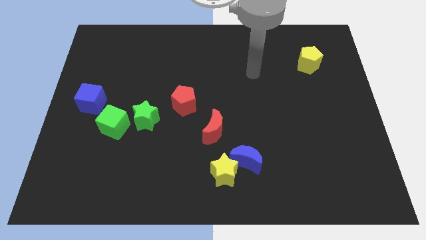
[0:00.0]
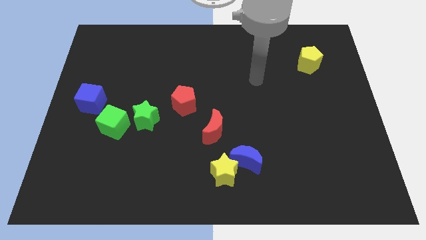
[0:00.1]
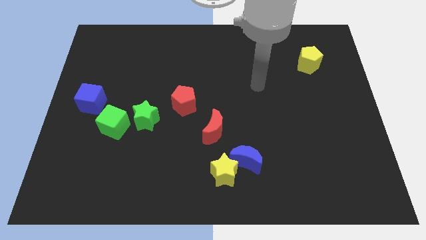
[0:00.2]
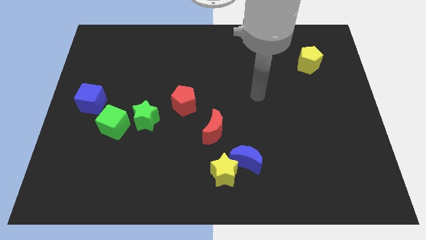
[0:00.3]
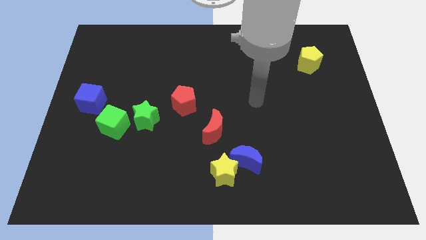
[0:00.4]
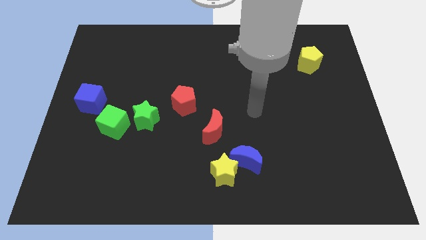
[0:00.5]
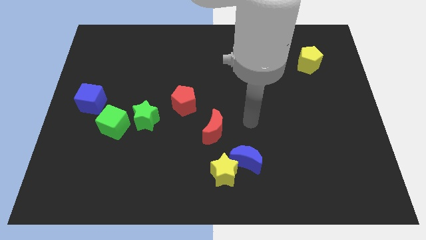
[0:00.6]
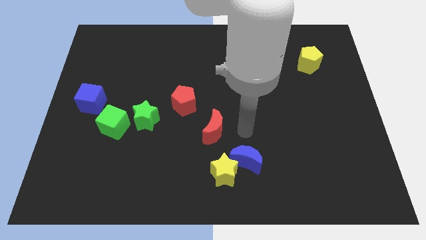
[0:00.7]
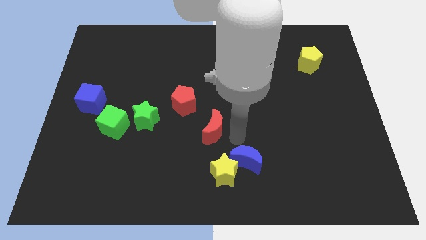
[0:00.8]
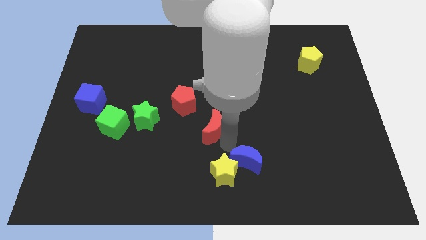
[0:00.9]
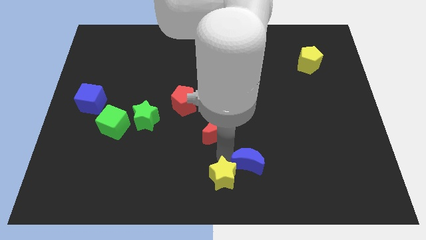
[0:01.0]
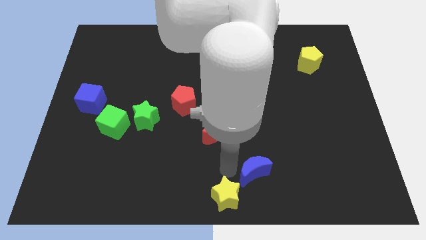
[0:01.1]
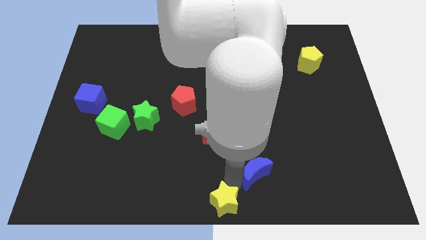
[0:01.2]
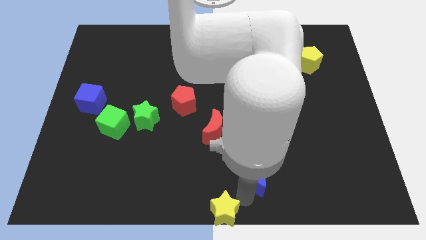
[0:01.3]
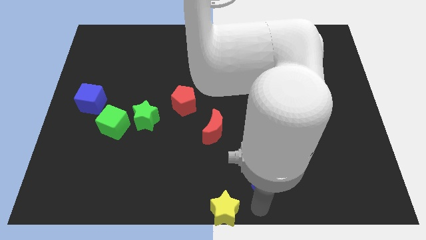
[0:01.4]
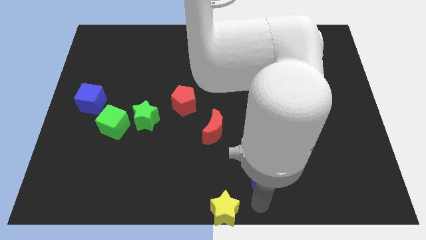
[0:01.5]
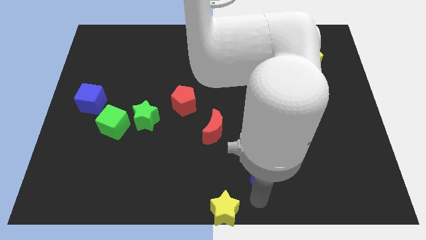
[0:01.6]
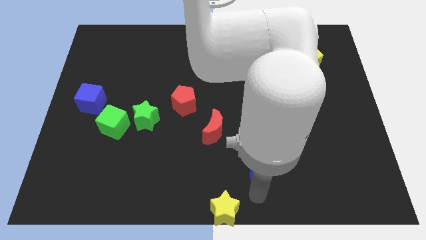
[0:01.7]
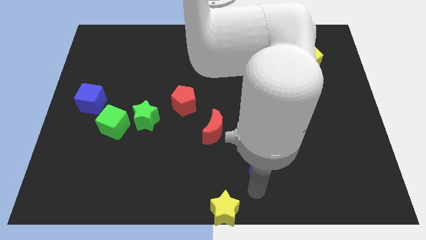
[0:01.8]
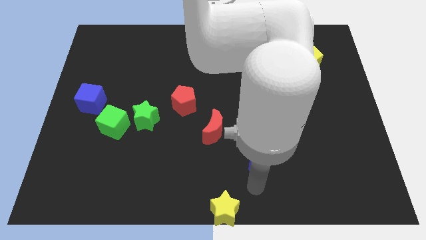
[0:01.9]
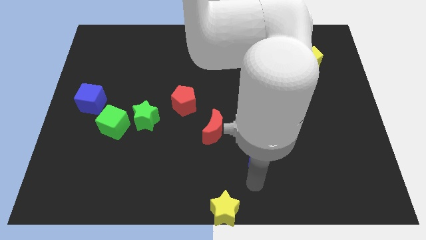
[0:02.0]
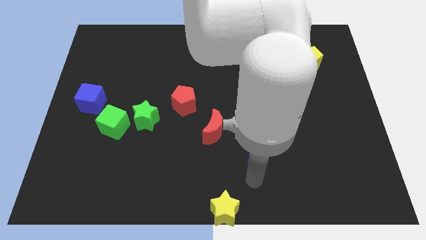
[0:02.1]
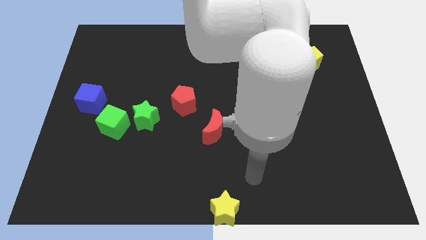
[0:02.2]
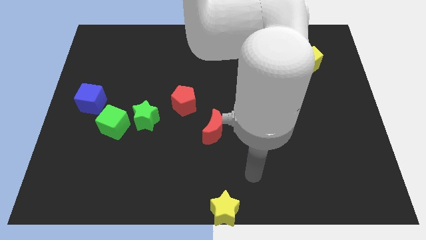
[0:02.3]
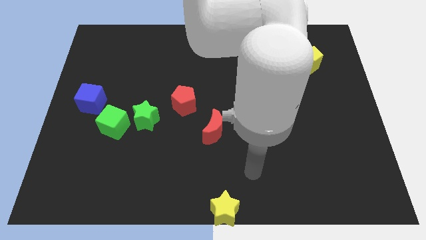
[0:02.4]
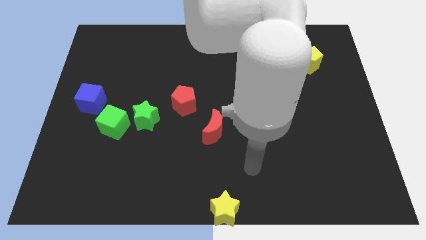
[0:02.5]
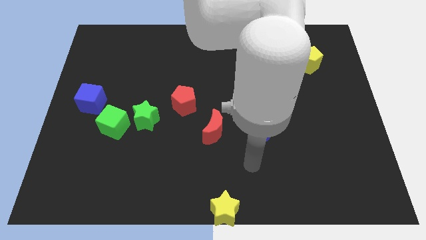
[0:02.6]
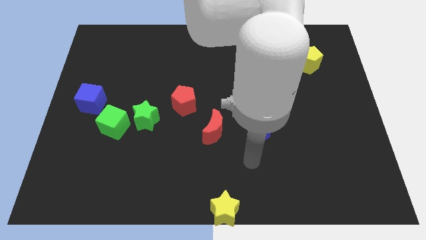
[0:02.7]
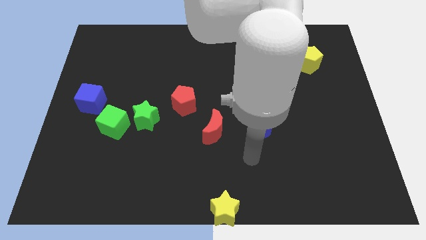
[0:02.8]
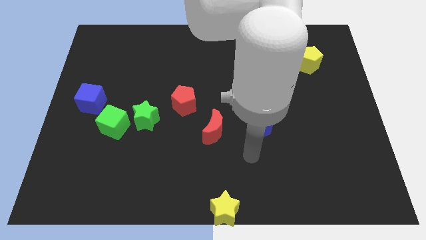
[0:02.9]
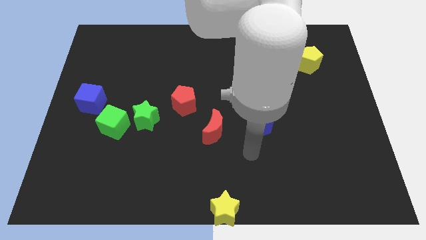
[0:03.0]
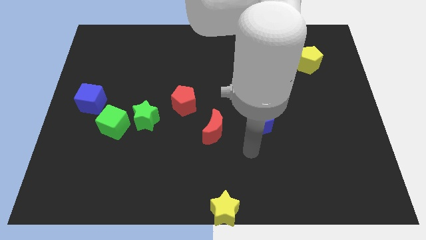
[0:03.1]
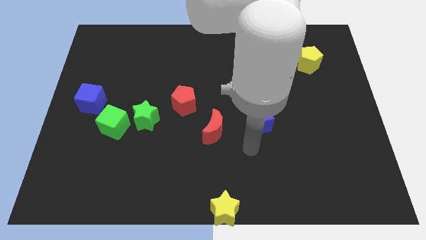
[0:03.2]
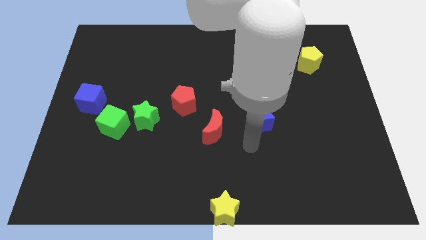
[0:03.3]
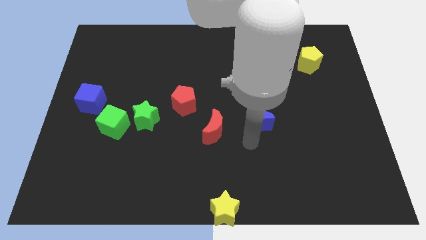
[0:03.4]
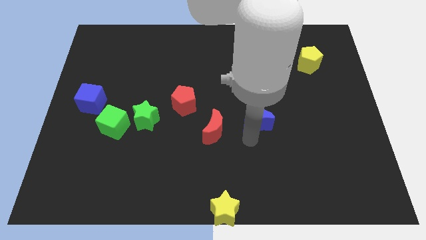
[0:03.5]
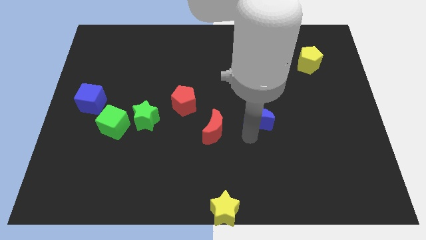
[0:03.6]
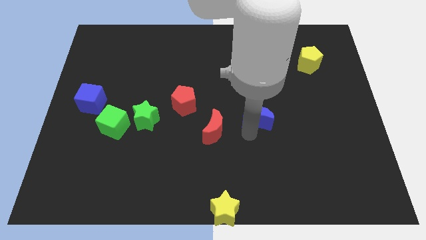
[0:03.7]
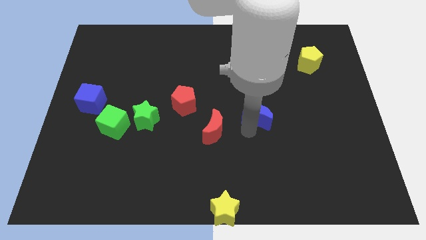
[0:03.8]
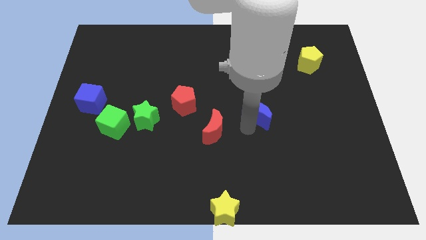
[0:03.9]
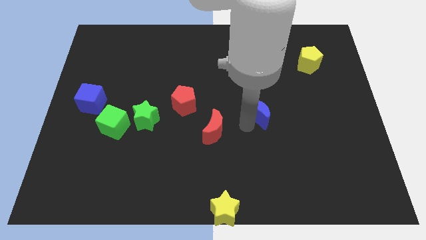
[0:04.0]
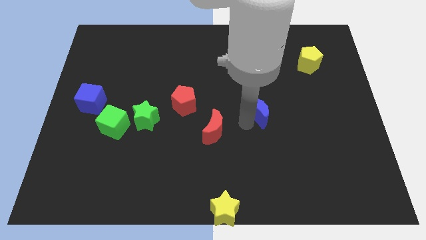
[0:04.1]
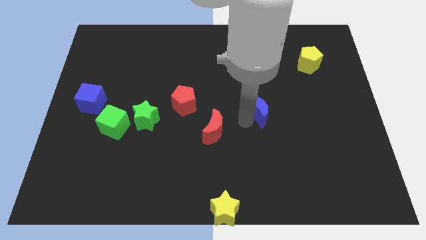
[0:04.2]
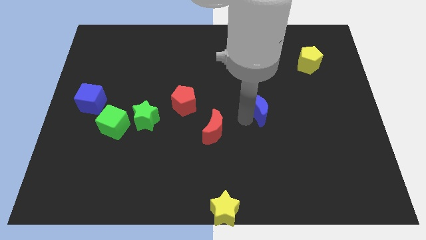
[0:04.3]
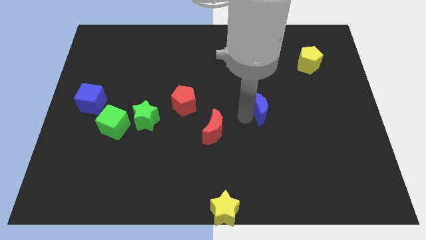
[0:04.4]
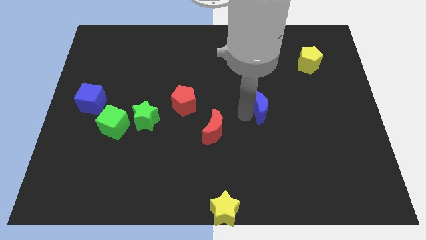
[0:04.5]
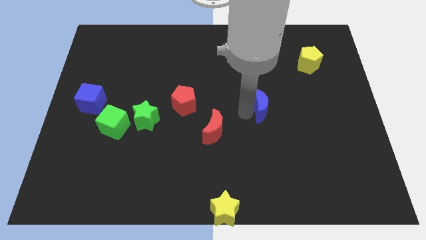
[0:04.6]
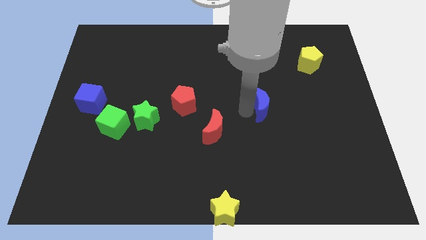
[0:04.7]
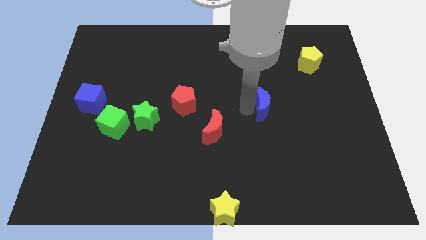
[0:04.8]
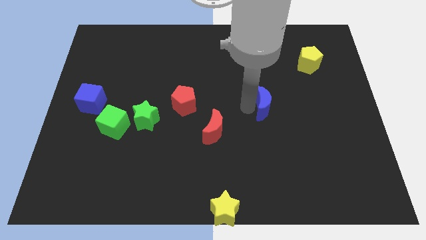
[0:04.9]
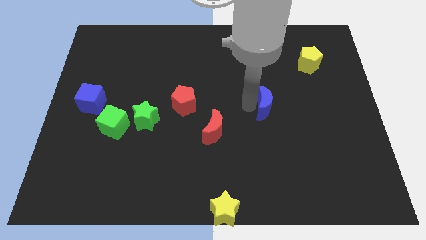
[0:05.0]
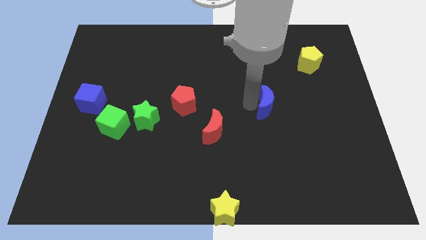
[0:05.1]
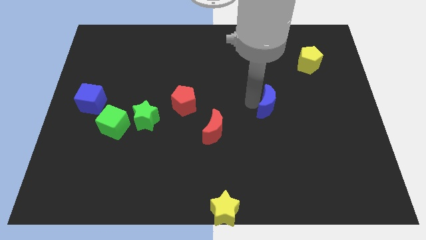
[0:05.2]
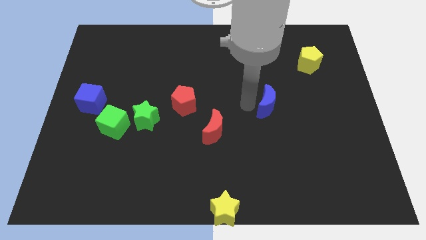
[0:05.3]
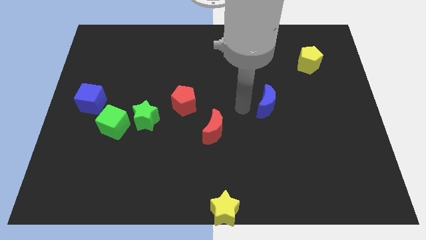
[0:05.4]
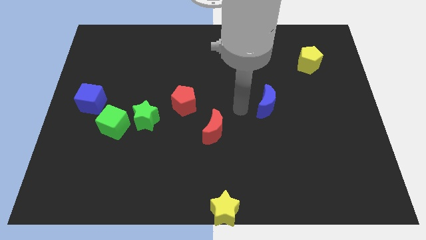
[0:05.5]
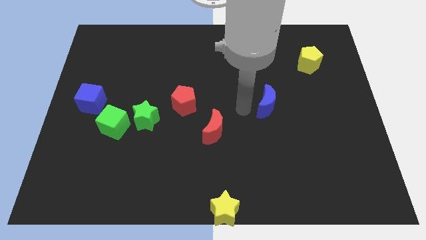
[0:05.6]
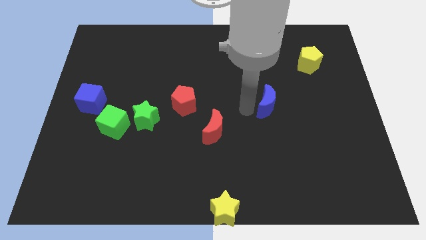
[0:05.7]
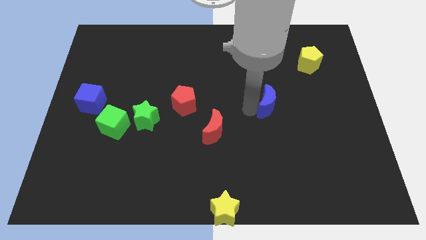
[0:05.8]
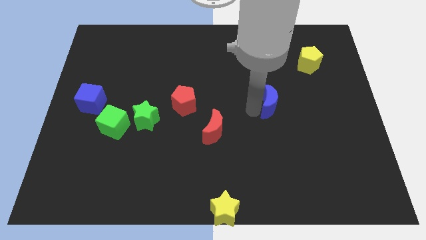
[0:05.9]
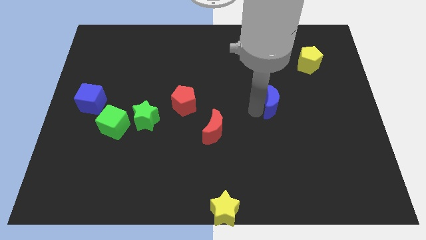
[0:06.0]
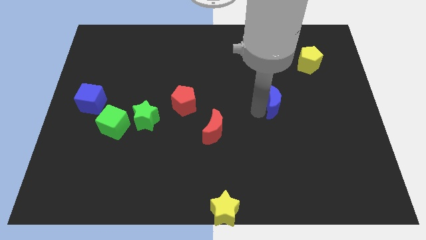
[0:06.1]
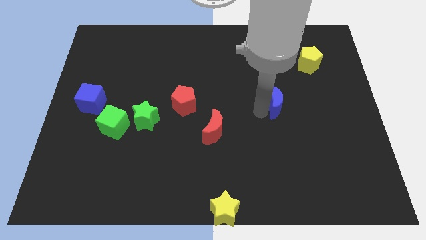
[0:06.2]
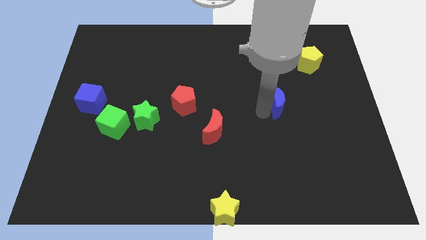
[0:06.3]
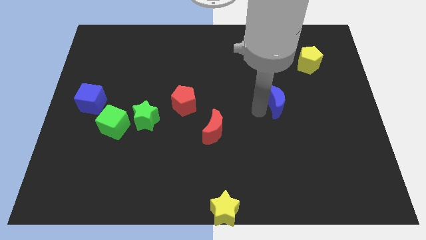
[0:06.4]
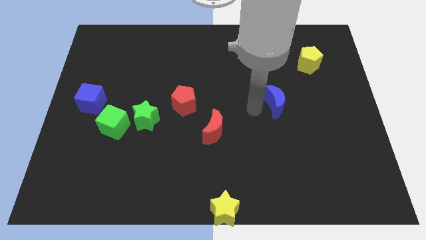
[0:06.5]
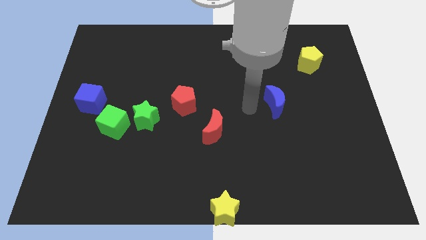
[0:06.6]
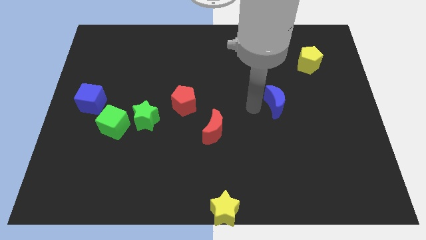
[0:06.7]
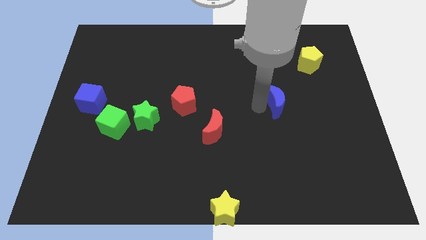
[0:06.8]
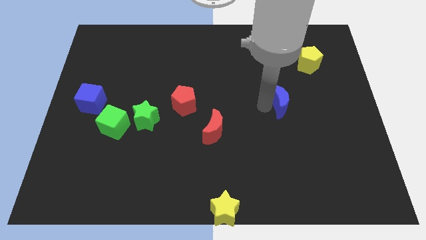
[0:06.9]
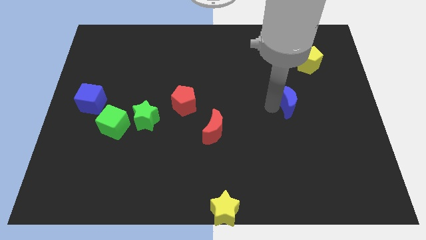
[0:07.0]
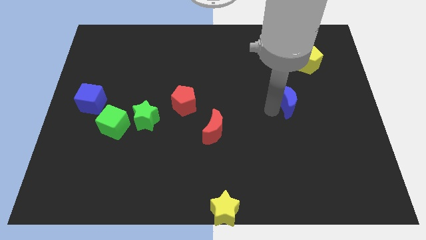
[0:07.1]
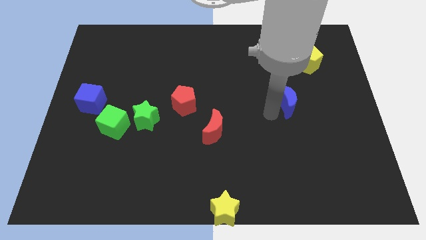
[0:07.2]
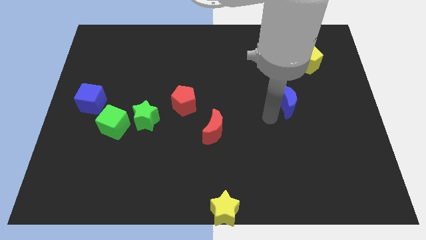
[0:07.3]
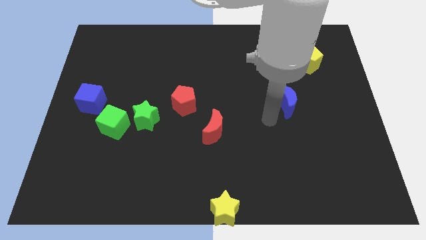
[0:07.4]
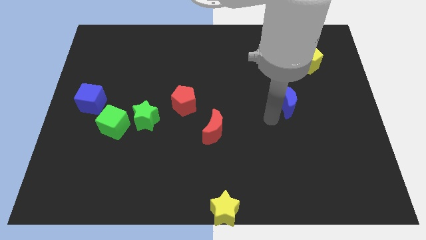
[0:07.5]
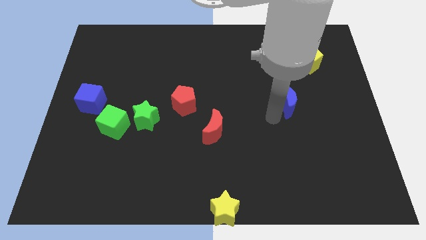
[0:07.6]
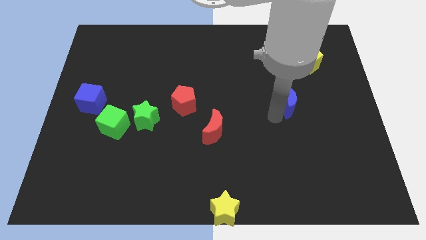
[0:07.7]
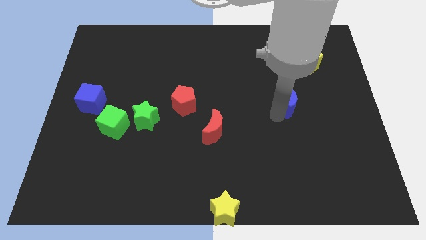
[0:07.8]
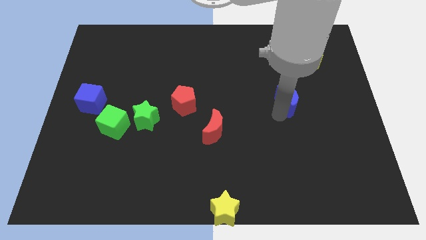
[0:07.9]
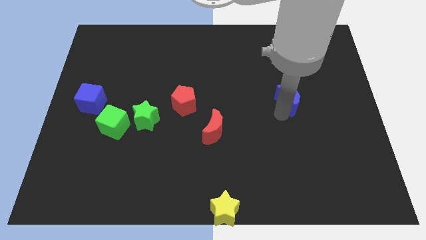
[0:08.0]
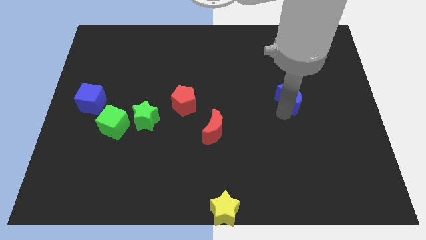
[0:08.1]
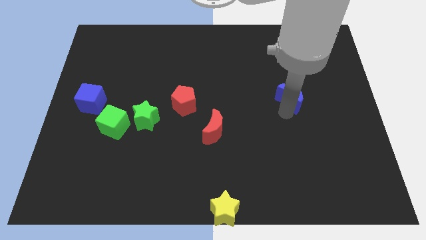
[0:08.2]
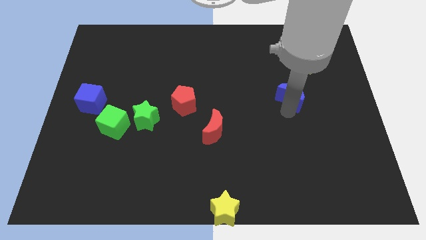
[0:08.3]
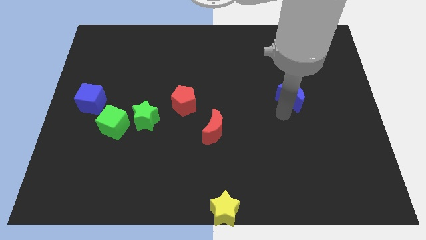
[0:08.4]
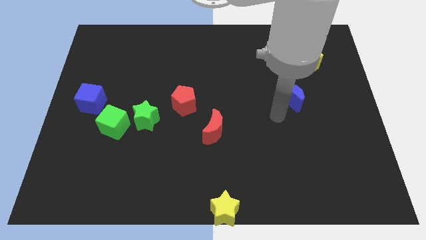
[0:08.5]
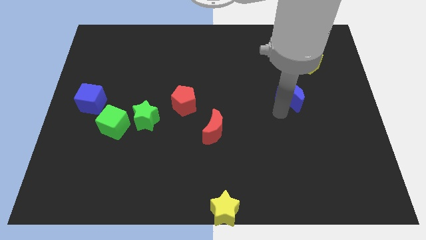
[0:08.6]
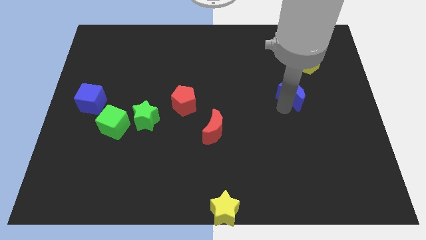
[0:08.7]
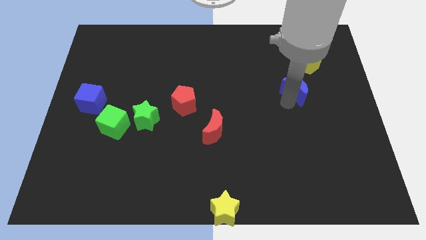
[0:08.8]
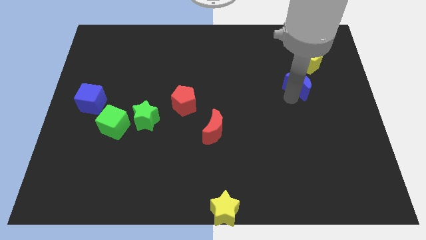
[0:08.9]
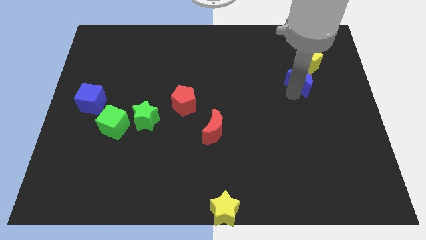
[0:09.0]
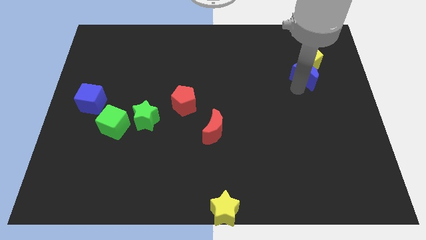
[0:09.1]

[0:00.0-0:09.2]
put the blue moon next to the yellow pentagon
